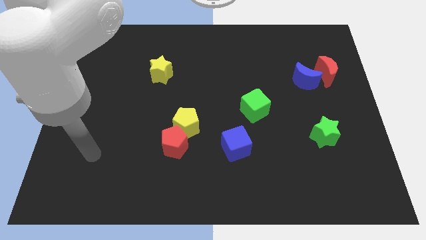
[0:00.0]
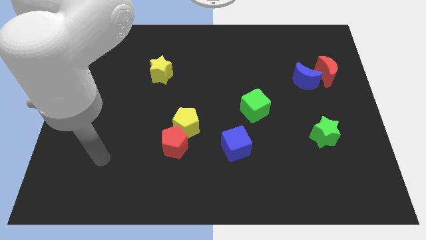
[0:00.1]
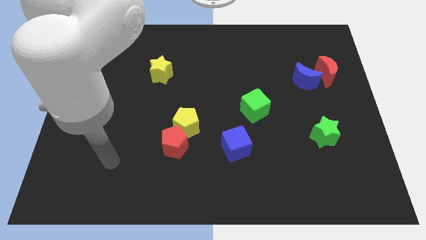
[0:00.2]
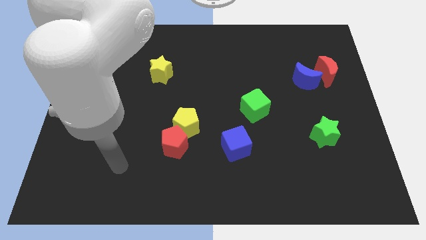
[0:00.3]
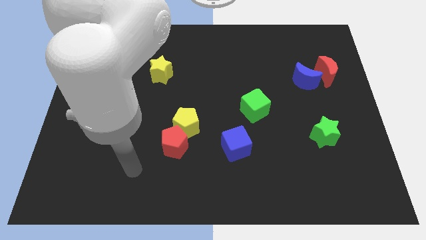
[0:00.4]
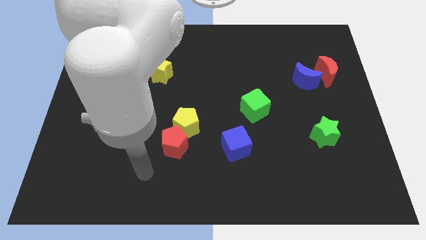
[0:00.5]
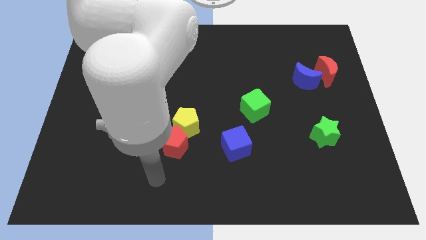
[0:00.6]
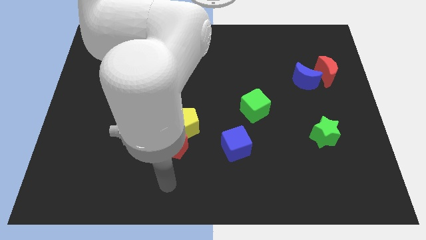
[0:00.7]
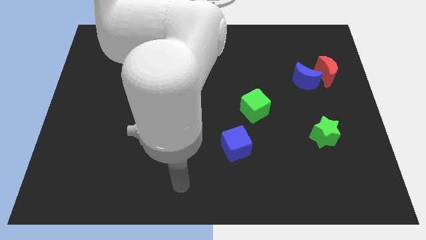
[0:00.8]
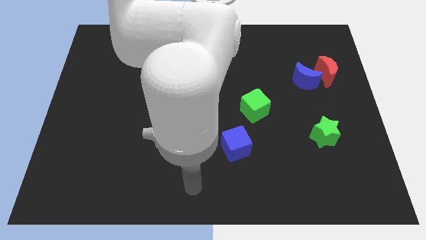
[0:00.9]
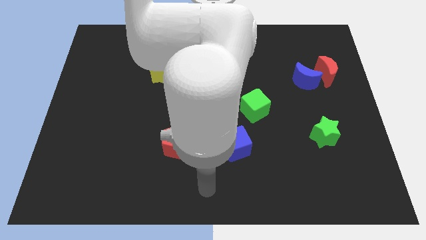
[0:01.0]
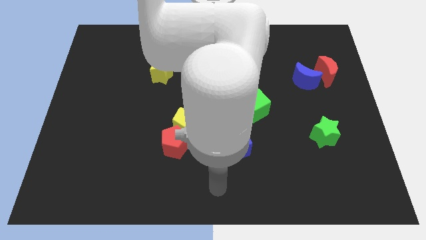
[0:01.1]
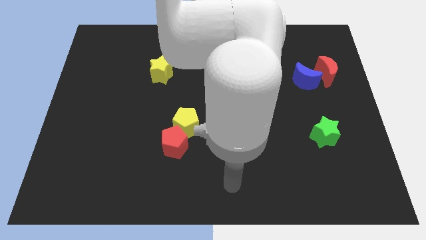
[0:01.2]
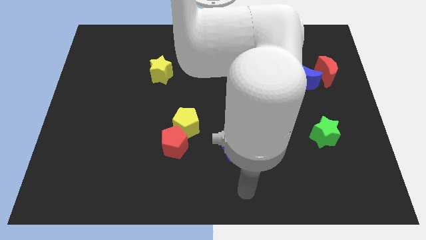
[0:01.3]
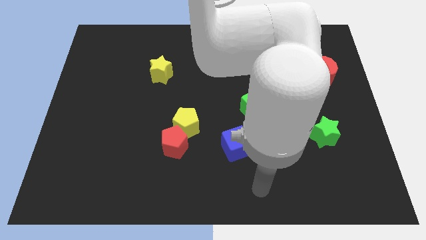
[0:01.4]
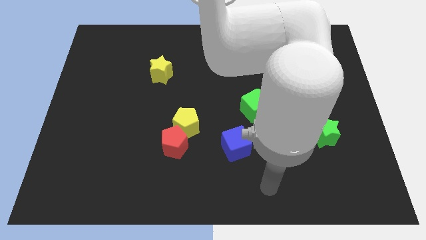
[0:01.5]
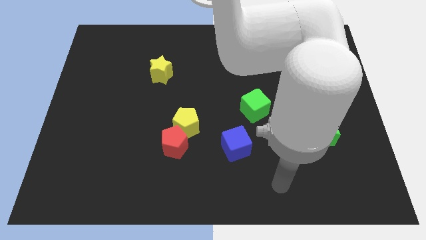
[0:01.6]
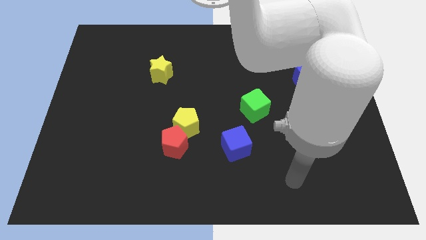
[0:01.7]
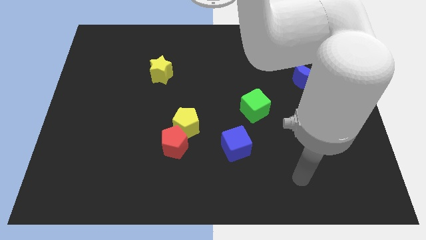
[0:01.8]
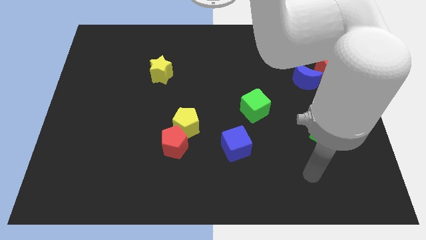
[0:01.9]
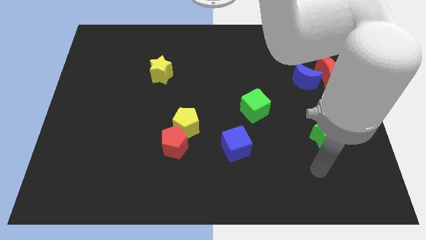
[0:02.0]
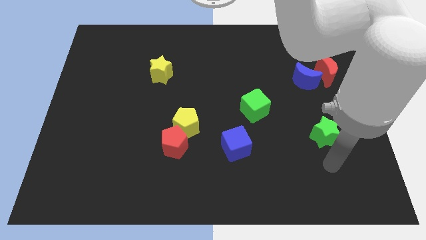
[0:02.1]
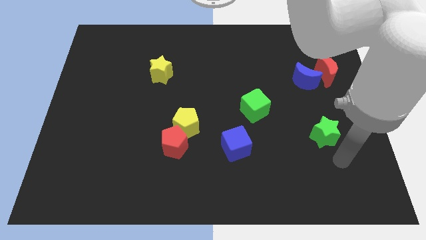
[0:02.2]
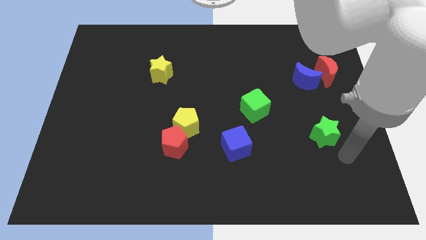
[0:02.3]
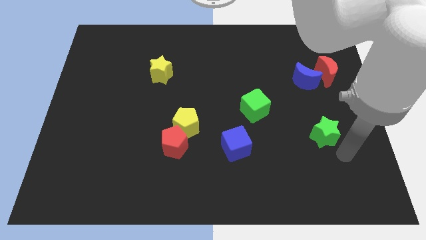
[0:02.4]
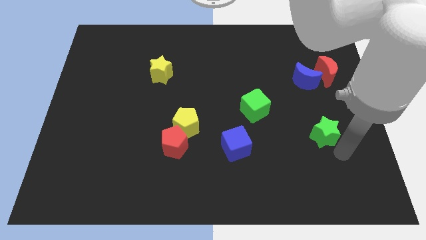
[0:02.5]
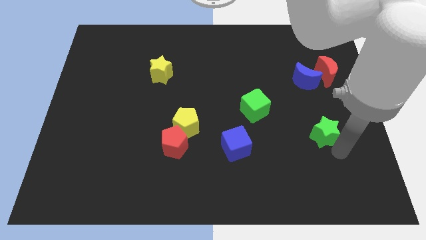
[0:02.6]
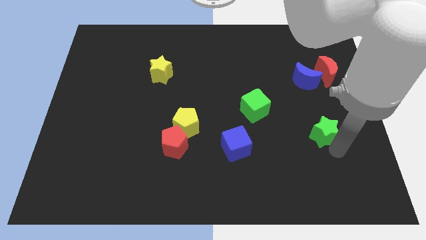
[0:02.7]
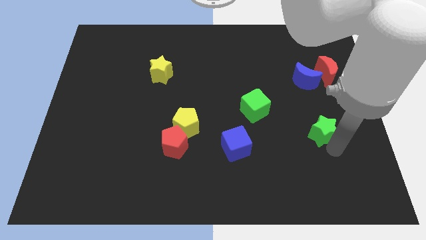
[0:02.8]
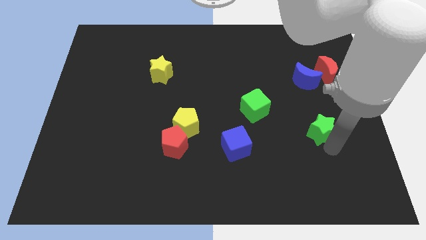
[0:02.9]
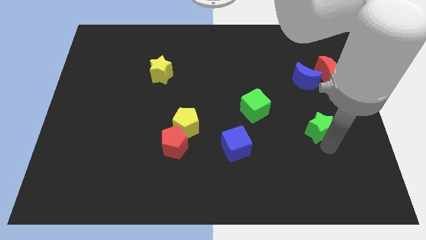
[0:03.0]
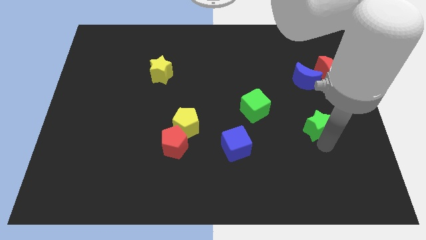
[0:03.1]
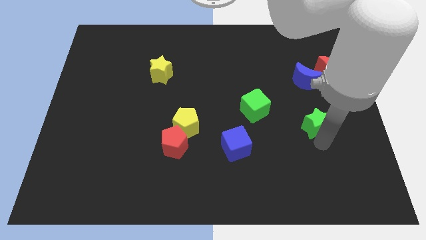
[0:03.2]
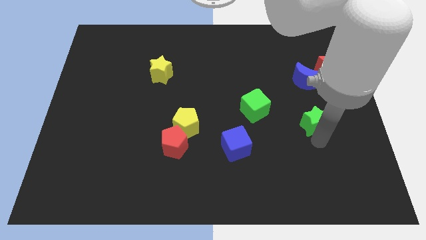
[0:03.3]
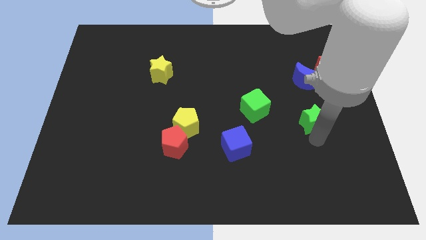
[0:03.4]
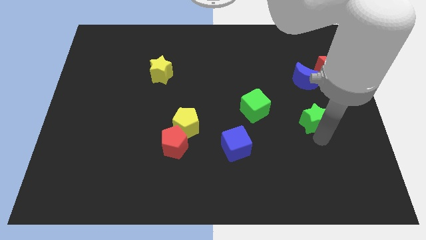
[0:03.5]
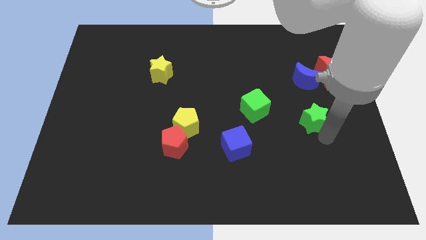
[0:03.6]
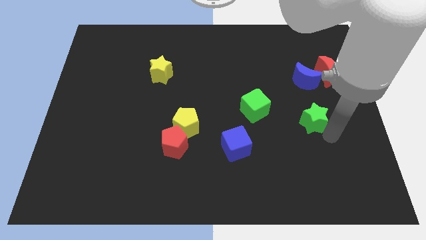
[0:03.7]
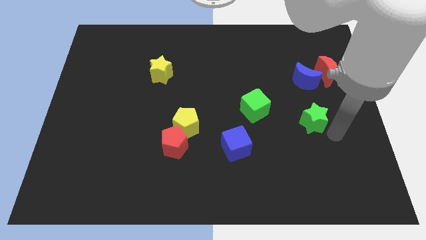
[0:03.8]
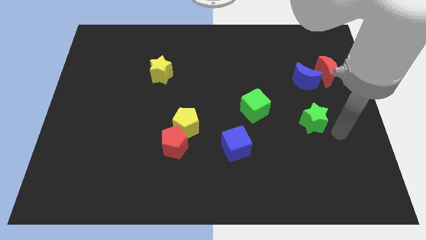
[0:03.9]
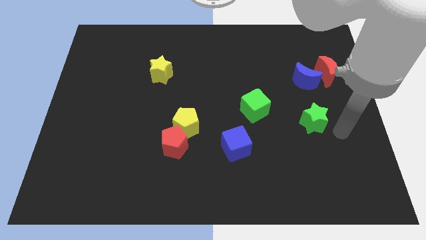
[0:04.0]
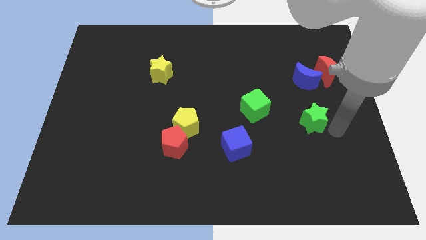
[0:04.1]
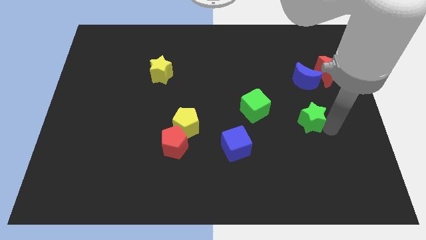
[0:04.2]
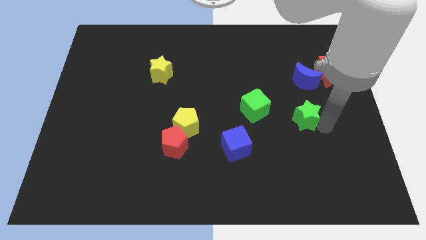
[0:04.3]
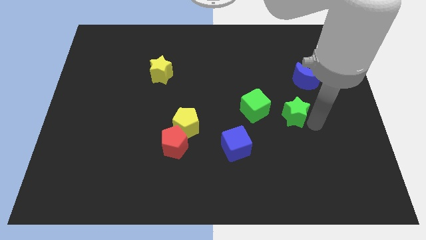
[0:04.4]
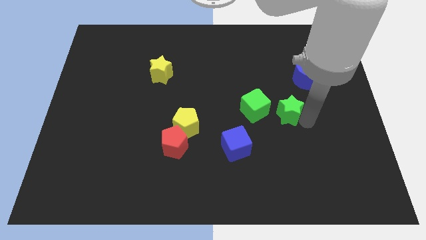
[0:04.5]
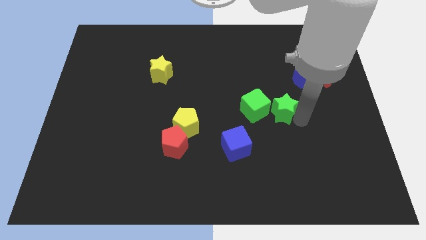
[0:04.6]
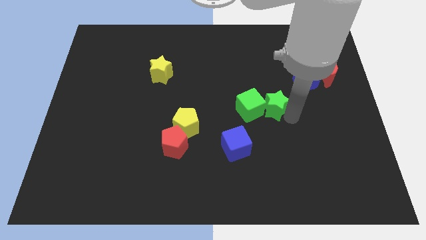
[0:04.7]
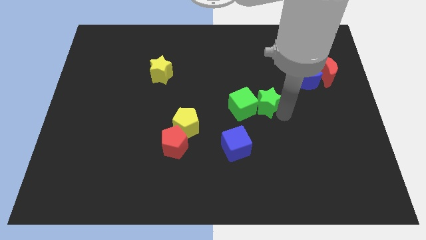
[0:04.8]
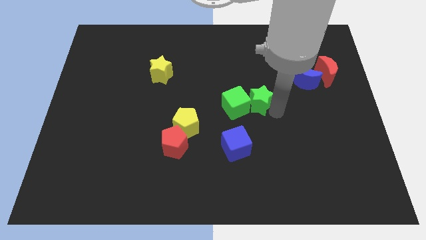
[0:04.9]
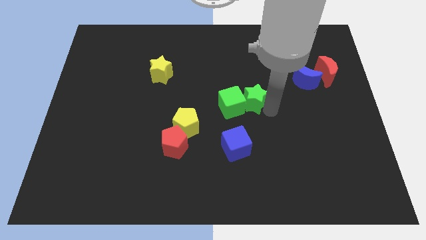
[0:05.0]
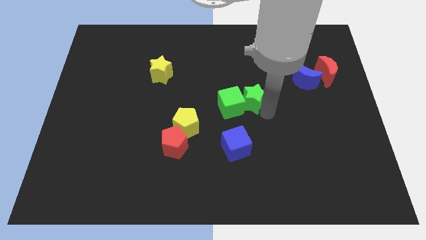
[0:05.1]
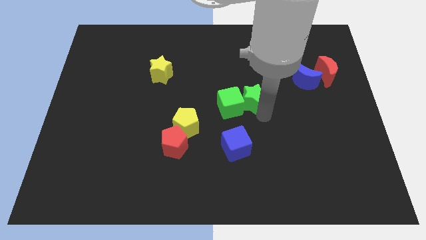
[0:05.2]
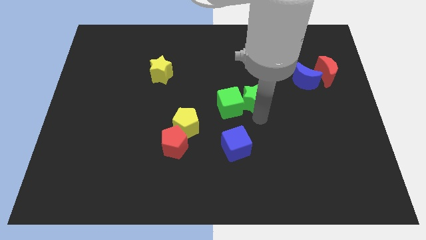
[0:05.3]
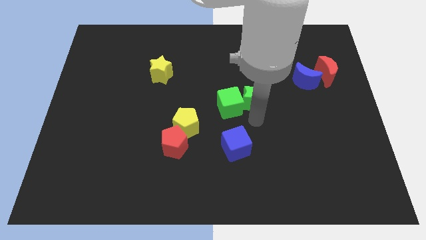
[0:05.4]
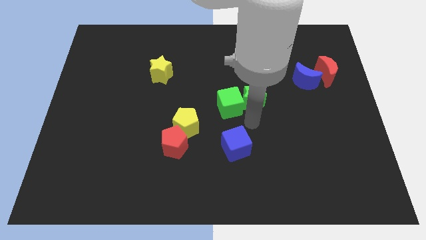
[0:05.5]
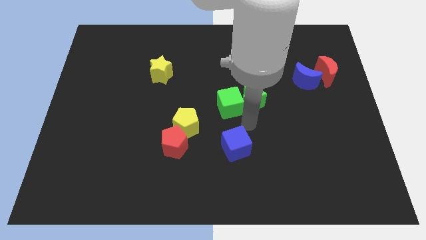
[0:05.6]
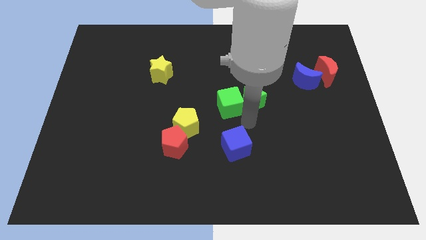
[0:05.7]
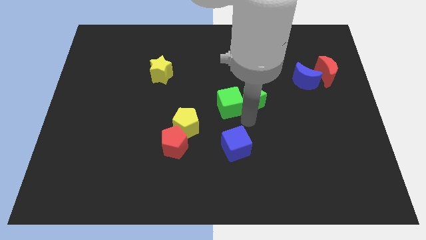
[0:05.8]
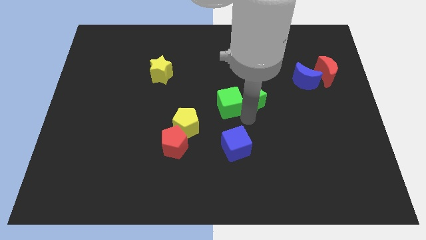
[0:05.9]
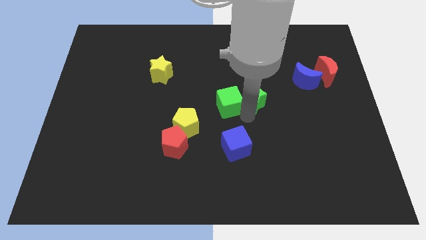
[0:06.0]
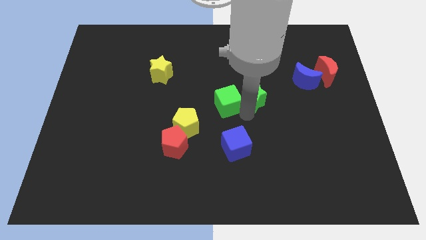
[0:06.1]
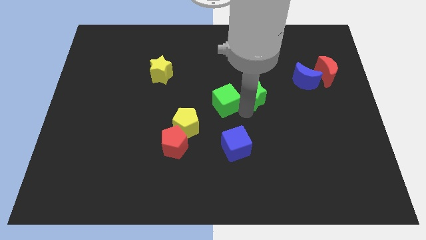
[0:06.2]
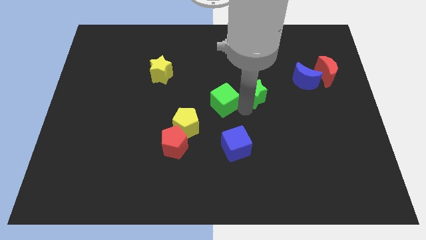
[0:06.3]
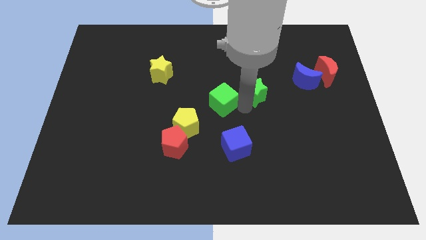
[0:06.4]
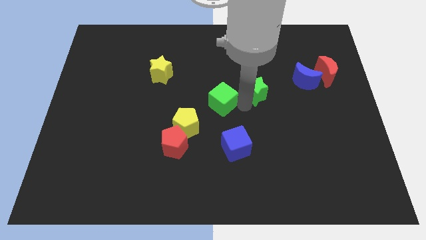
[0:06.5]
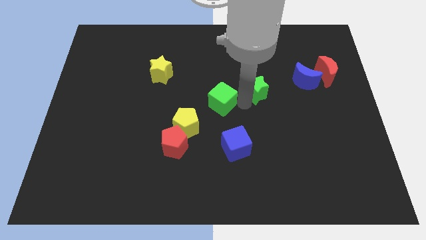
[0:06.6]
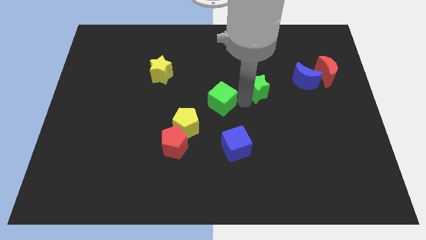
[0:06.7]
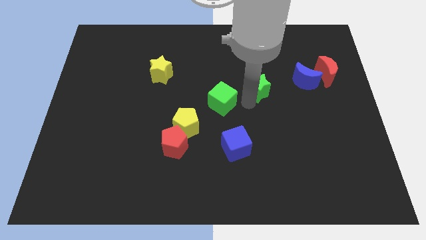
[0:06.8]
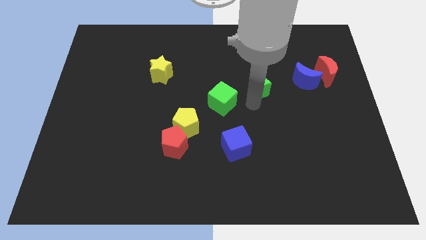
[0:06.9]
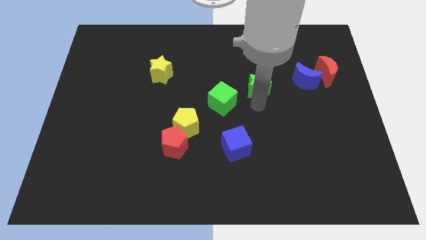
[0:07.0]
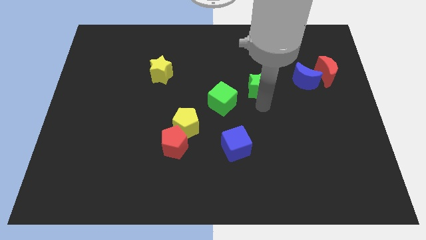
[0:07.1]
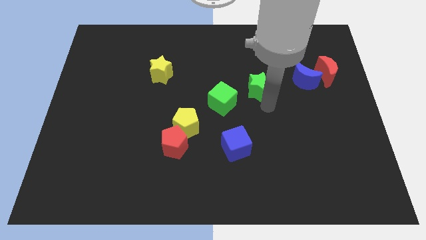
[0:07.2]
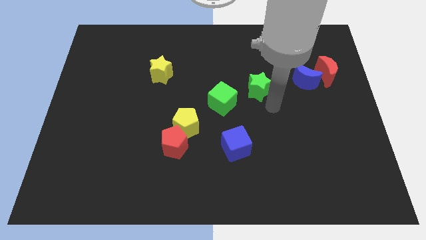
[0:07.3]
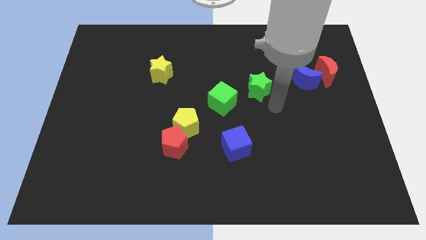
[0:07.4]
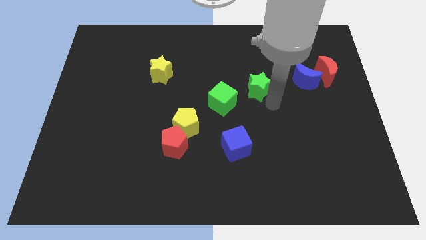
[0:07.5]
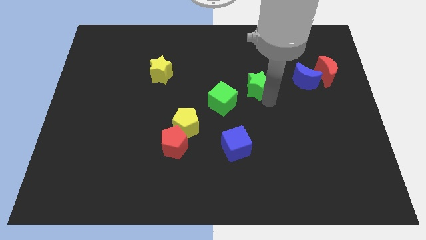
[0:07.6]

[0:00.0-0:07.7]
push the green star upwards and left

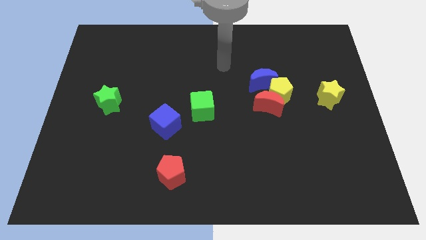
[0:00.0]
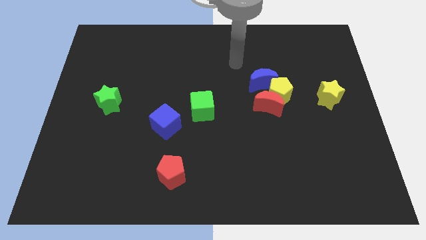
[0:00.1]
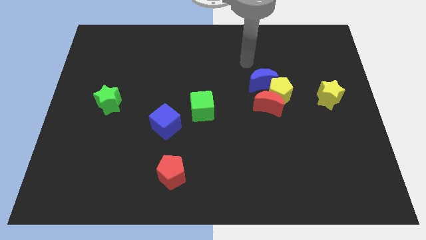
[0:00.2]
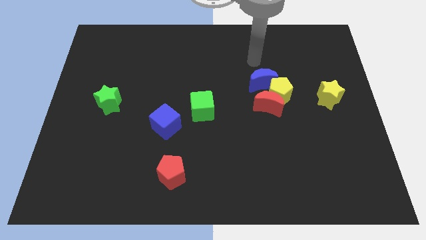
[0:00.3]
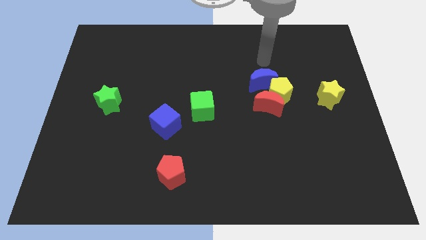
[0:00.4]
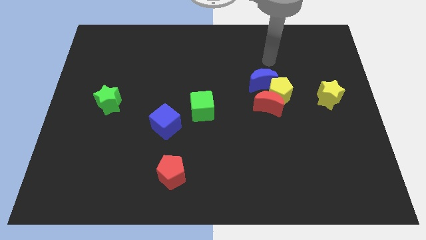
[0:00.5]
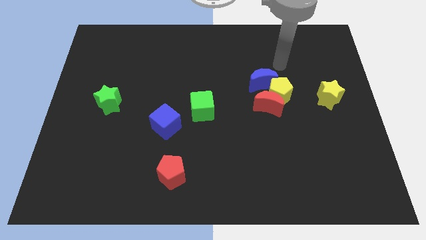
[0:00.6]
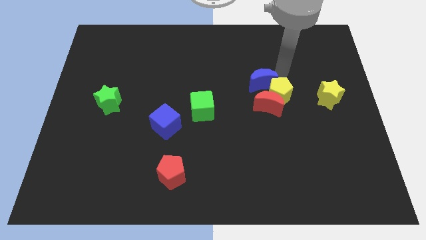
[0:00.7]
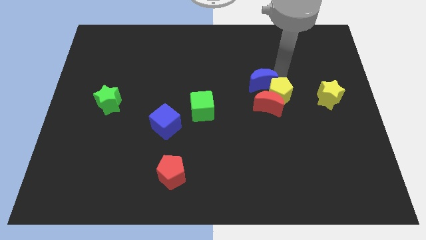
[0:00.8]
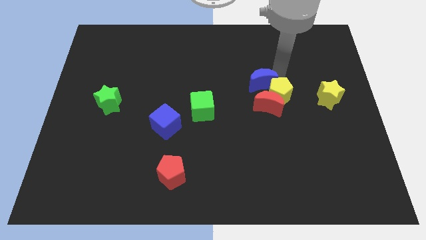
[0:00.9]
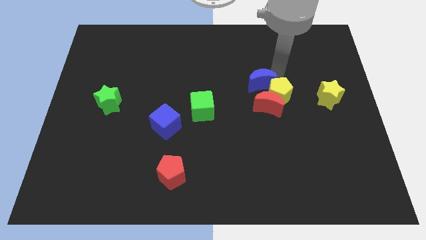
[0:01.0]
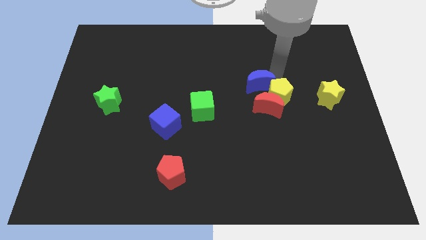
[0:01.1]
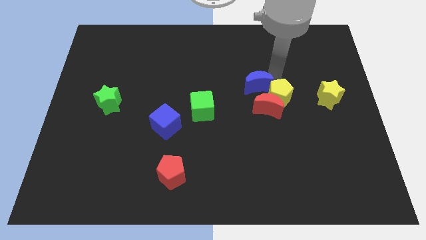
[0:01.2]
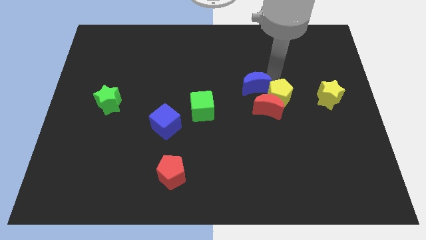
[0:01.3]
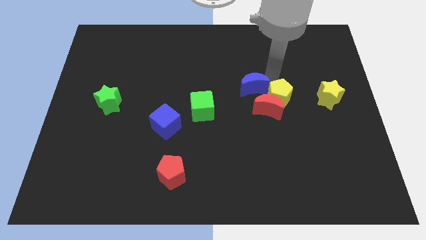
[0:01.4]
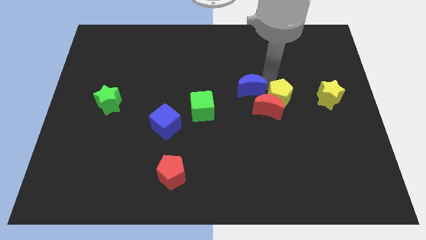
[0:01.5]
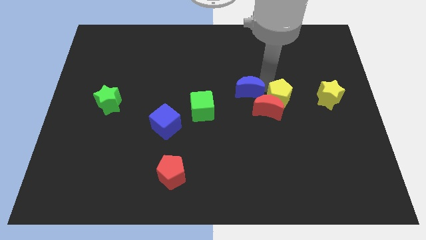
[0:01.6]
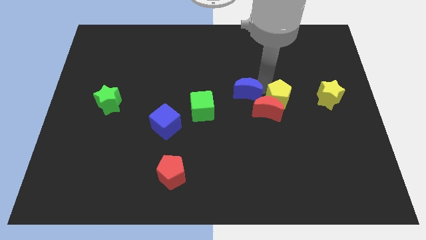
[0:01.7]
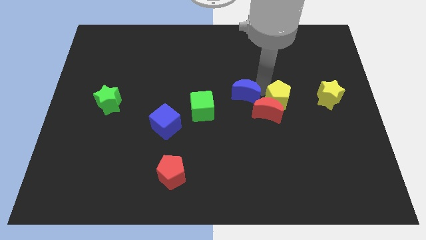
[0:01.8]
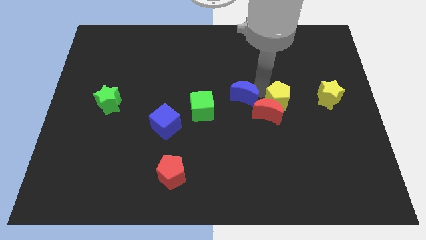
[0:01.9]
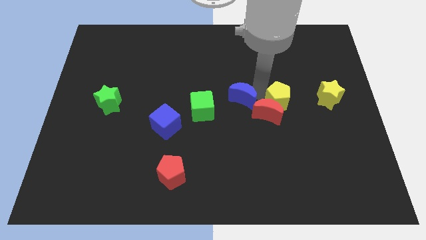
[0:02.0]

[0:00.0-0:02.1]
slightly move the blue moon down and then left
